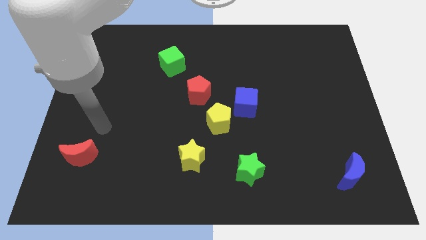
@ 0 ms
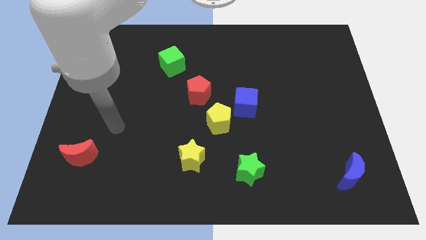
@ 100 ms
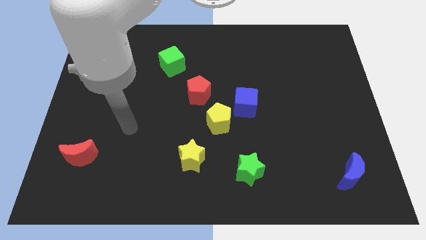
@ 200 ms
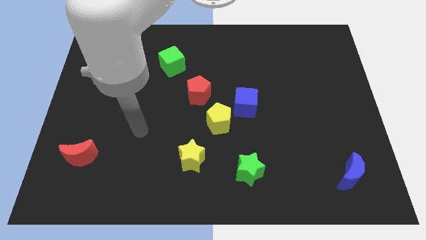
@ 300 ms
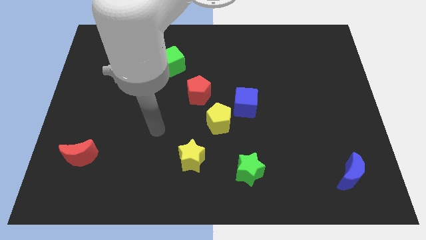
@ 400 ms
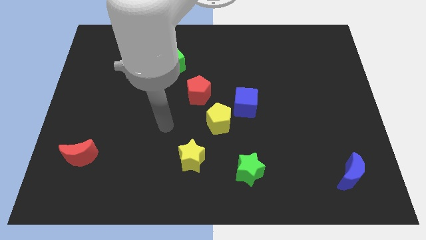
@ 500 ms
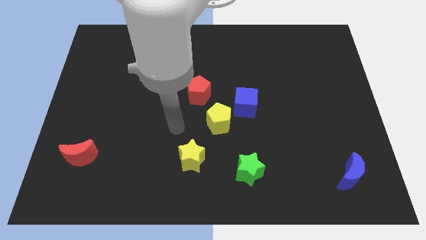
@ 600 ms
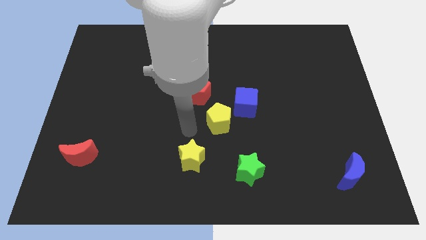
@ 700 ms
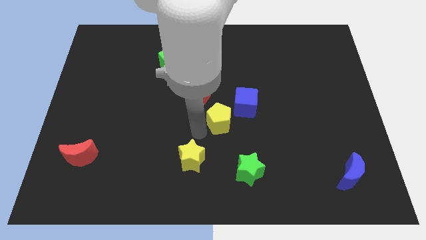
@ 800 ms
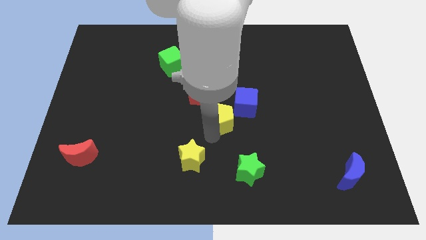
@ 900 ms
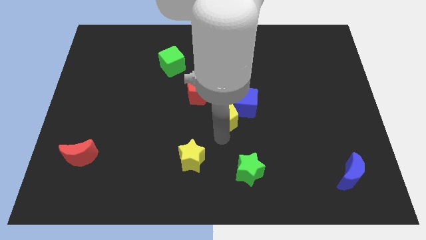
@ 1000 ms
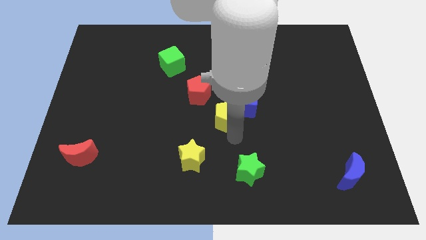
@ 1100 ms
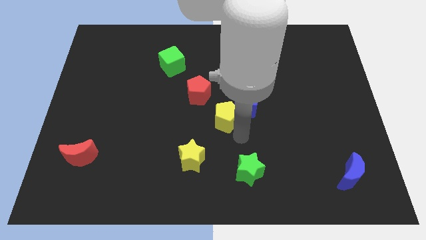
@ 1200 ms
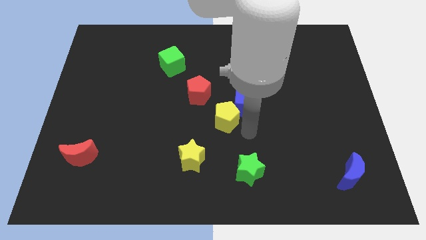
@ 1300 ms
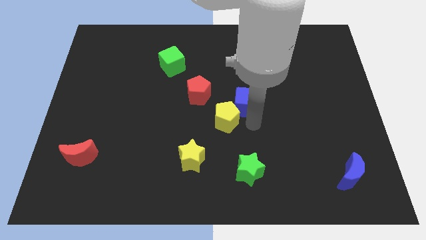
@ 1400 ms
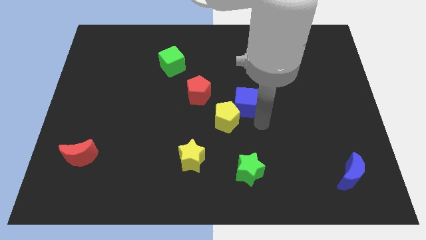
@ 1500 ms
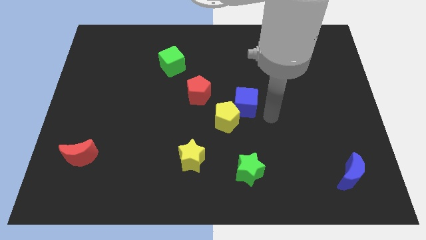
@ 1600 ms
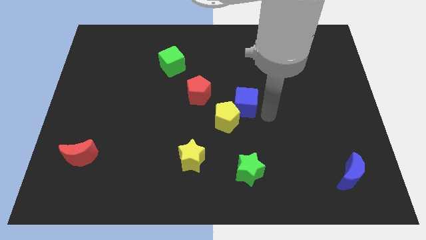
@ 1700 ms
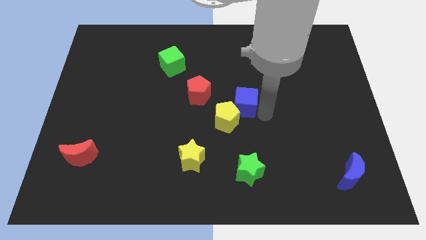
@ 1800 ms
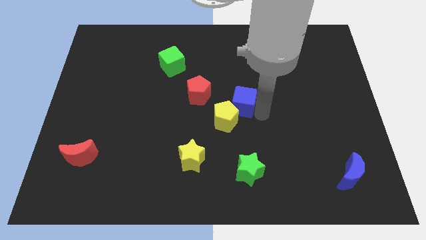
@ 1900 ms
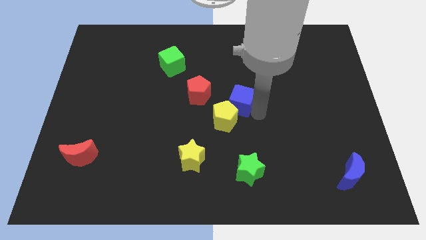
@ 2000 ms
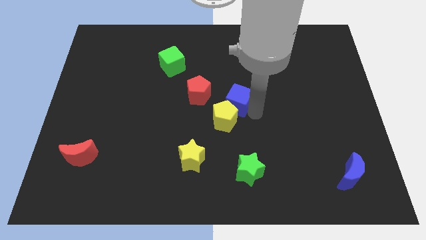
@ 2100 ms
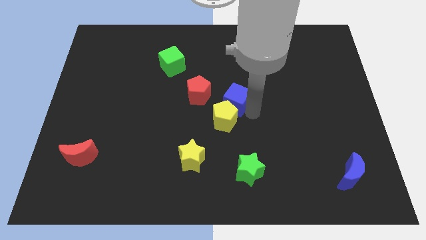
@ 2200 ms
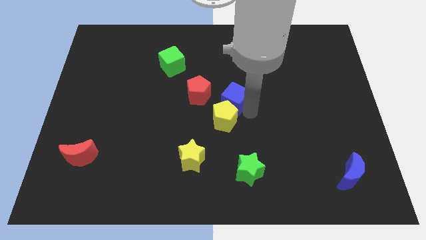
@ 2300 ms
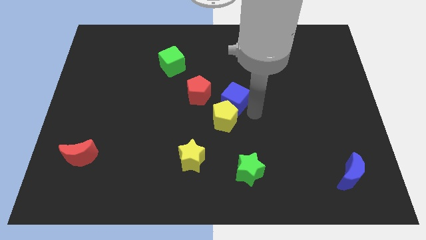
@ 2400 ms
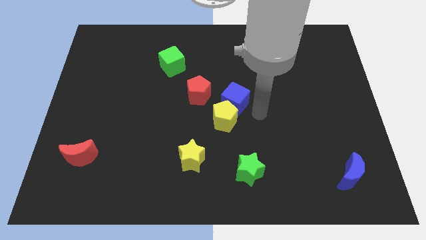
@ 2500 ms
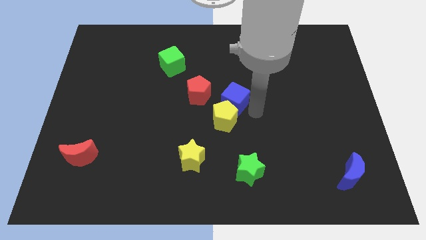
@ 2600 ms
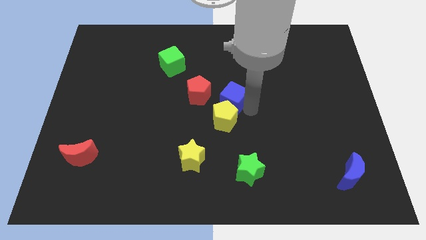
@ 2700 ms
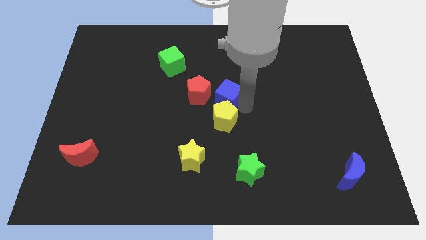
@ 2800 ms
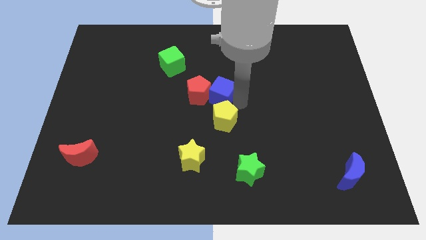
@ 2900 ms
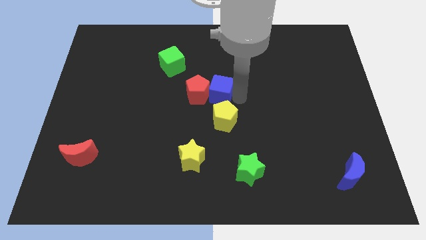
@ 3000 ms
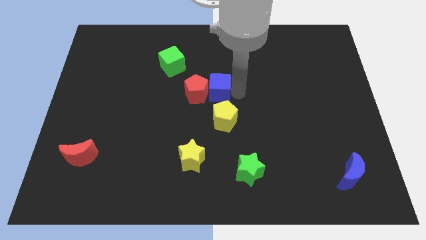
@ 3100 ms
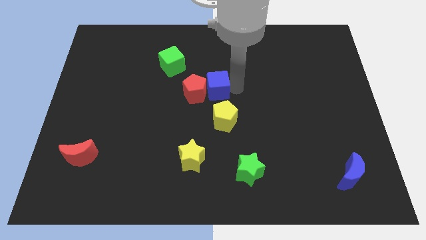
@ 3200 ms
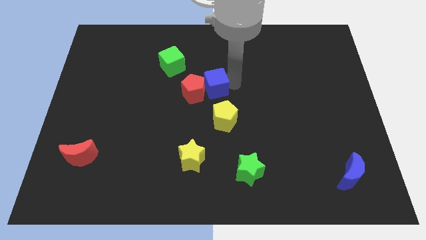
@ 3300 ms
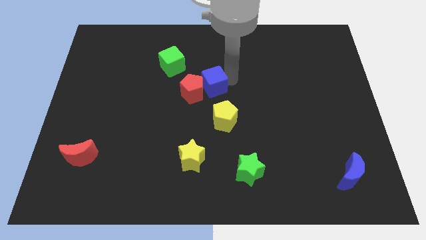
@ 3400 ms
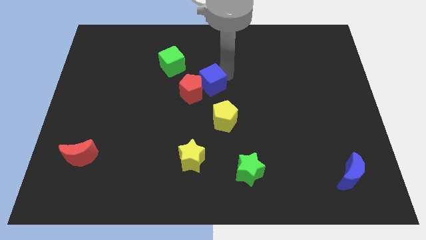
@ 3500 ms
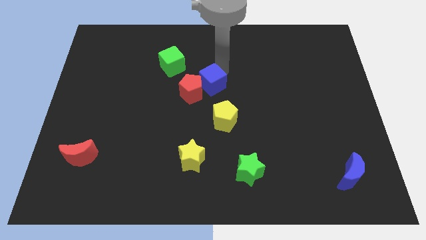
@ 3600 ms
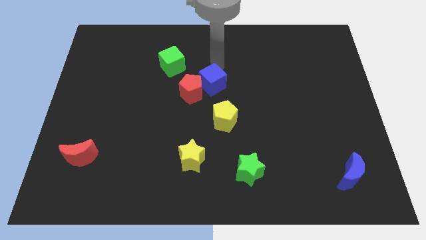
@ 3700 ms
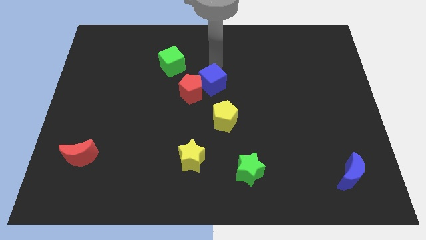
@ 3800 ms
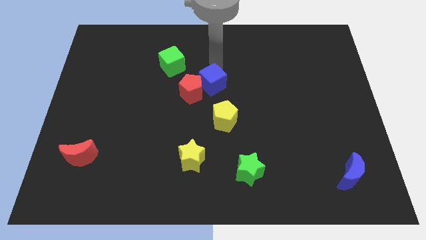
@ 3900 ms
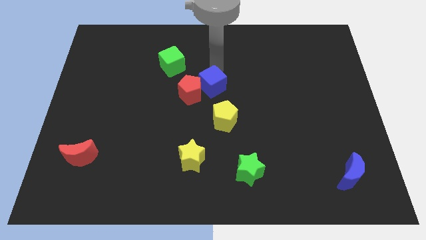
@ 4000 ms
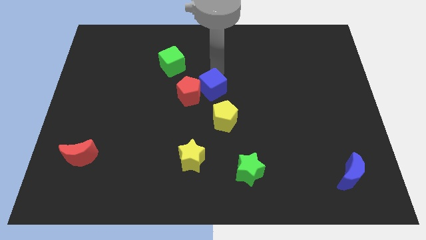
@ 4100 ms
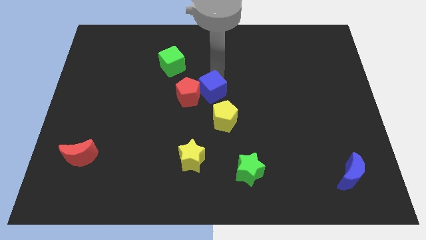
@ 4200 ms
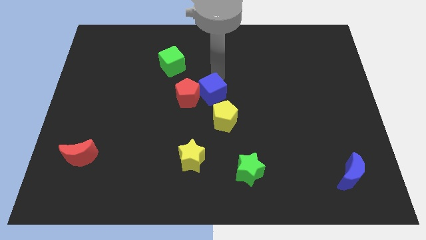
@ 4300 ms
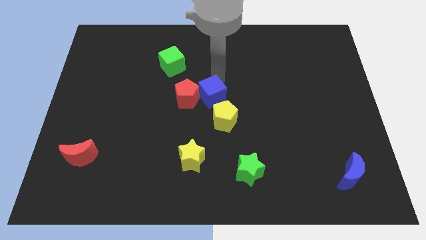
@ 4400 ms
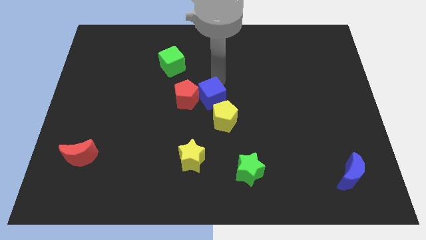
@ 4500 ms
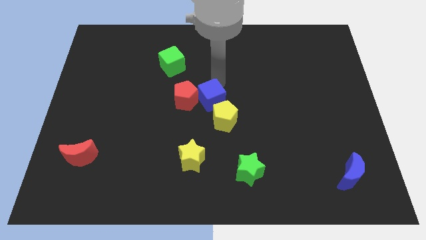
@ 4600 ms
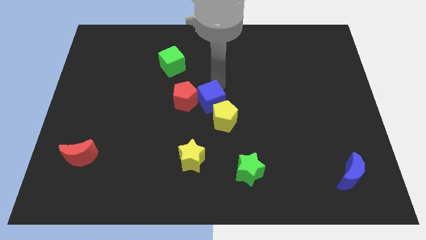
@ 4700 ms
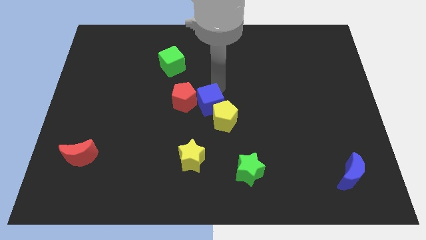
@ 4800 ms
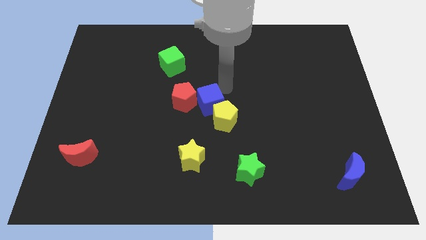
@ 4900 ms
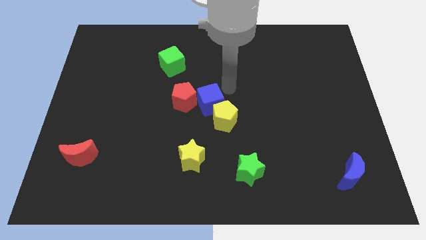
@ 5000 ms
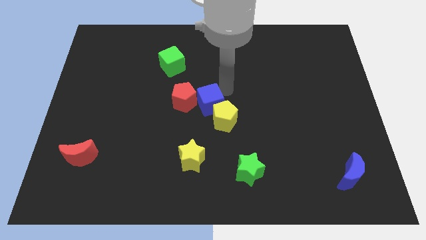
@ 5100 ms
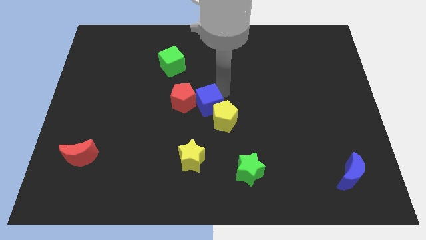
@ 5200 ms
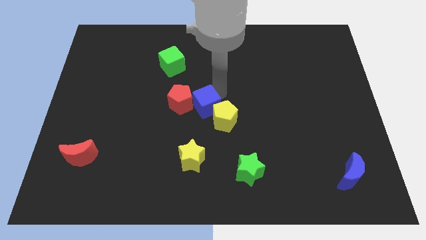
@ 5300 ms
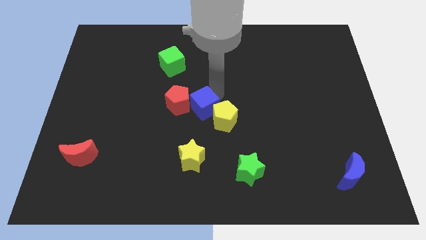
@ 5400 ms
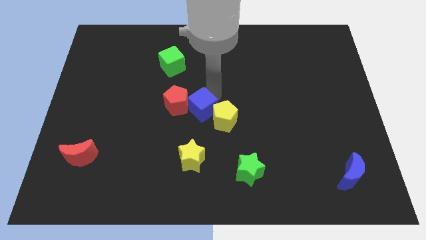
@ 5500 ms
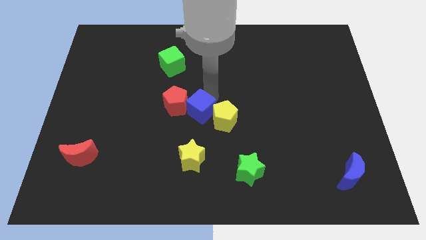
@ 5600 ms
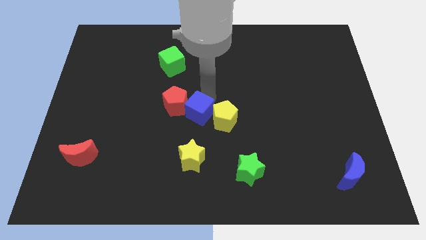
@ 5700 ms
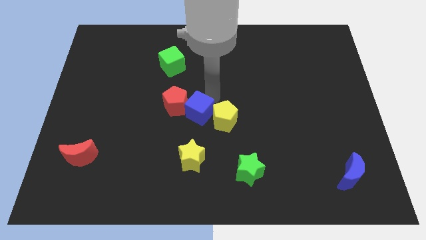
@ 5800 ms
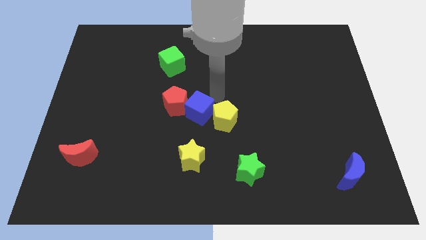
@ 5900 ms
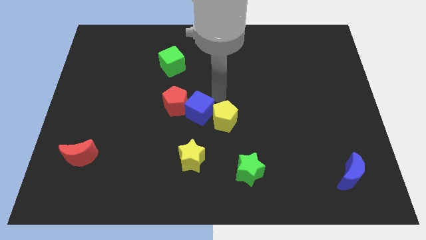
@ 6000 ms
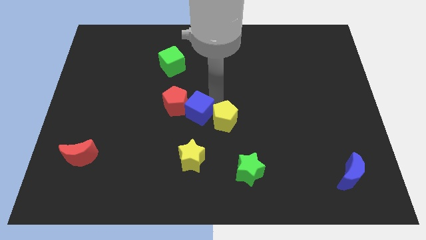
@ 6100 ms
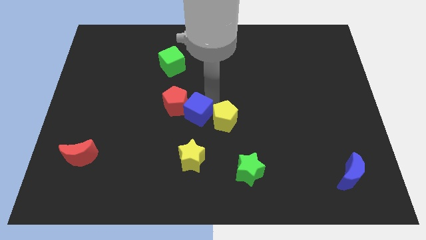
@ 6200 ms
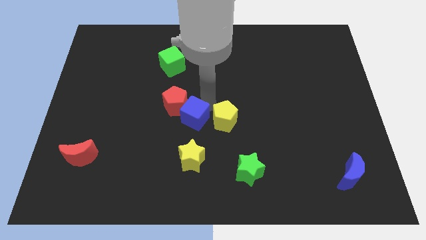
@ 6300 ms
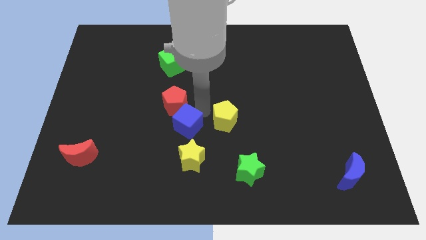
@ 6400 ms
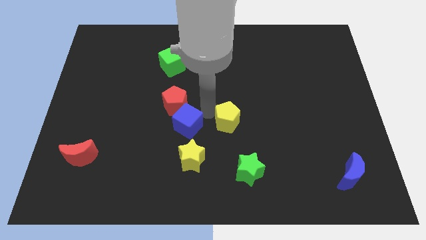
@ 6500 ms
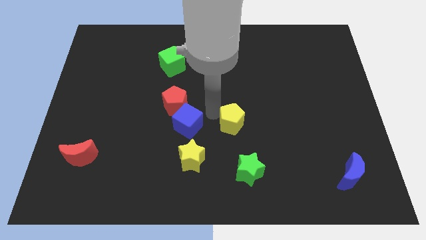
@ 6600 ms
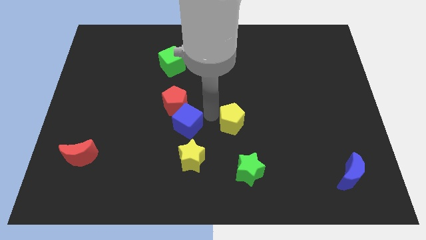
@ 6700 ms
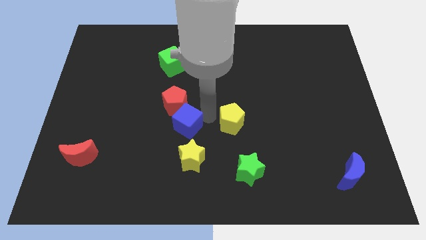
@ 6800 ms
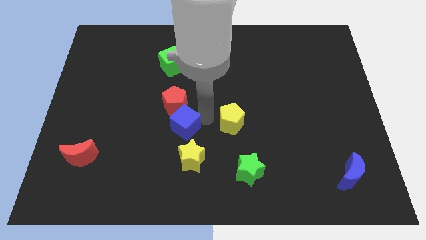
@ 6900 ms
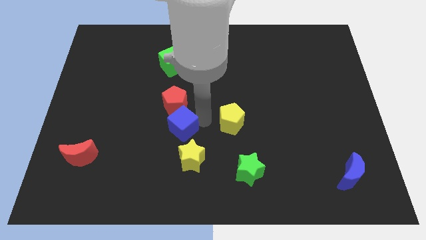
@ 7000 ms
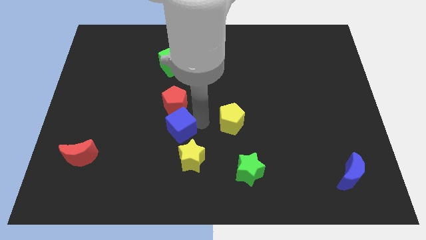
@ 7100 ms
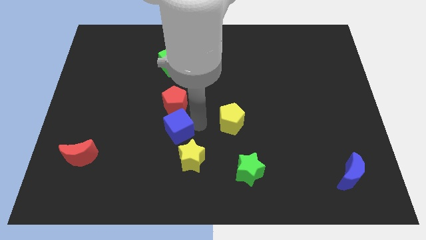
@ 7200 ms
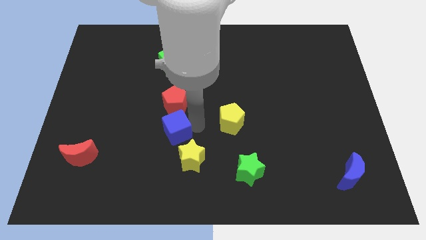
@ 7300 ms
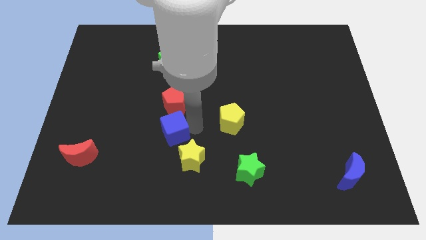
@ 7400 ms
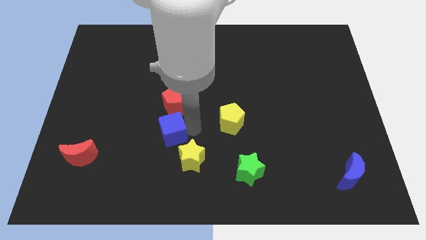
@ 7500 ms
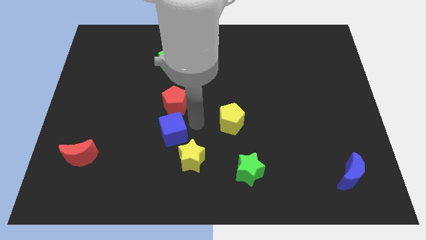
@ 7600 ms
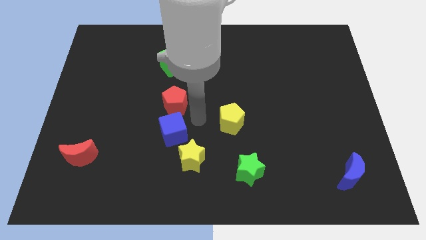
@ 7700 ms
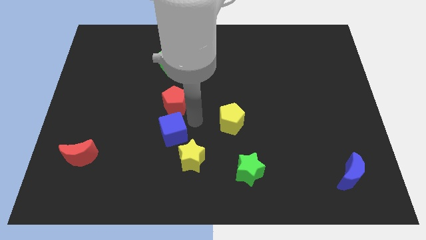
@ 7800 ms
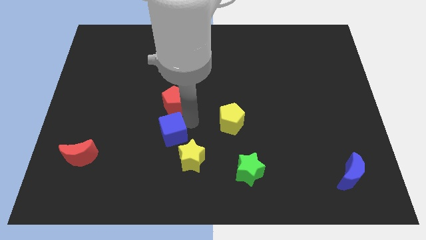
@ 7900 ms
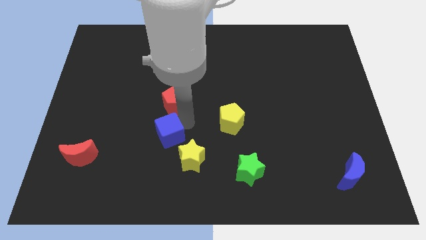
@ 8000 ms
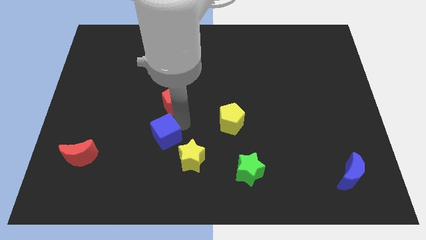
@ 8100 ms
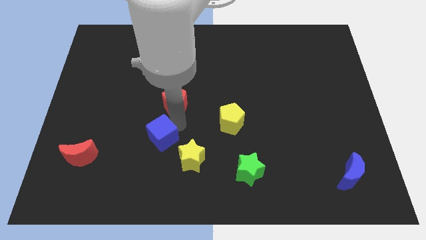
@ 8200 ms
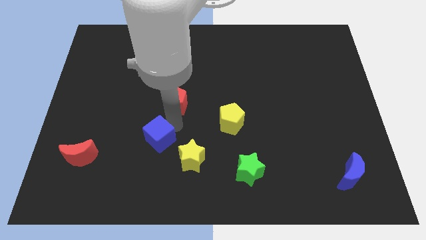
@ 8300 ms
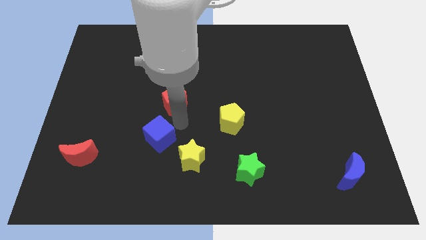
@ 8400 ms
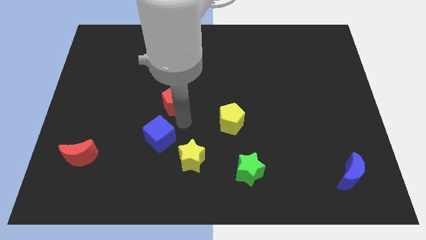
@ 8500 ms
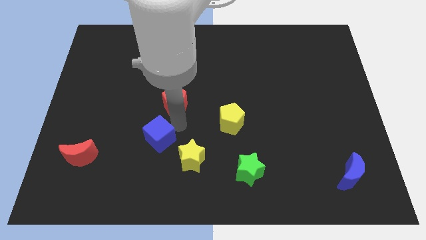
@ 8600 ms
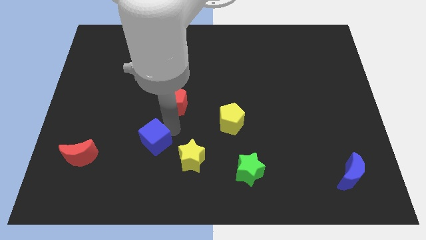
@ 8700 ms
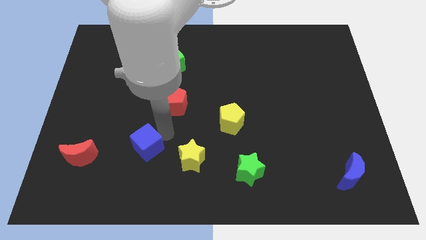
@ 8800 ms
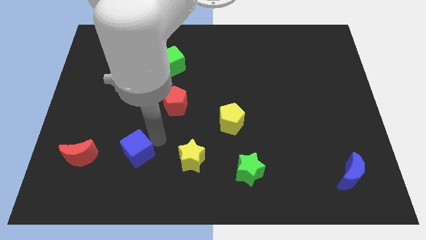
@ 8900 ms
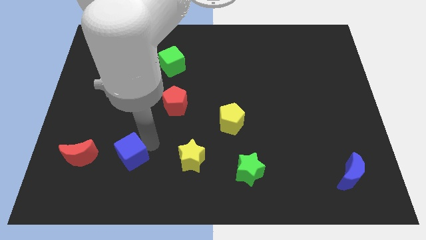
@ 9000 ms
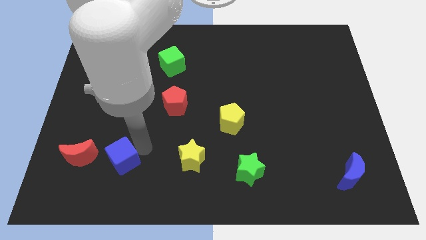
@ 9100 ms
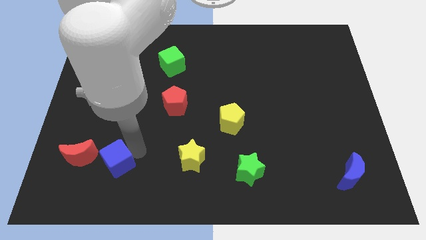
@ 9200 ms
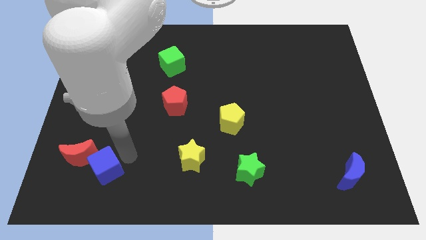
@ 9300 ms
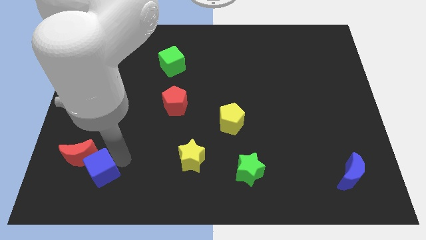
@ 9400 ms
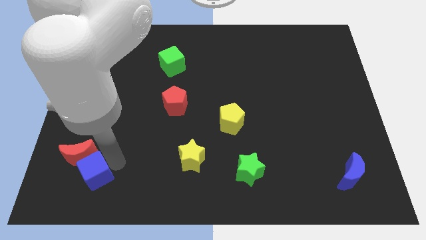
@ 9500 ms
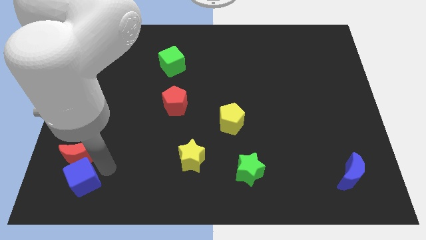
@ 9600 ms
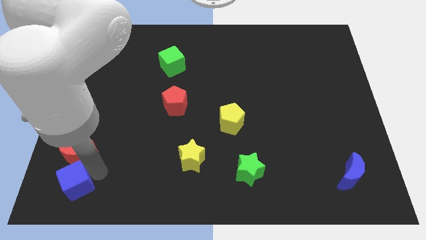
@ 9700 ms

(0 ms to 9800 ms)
move the blue cube to the bottom left of the board
